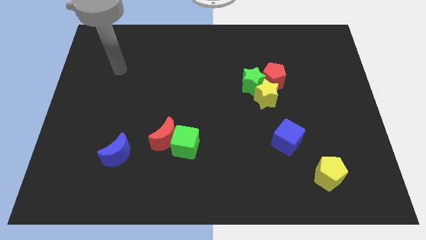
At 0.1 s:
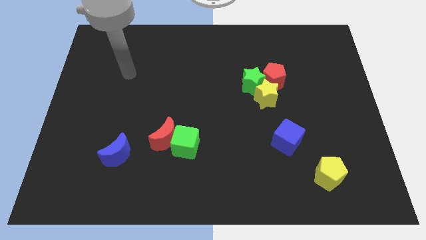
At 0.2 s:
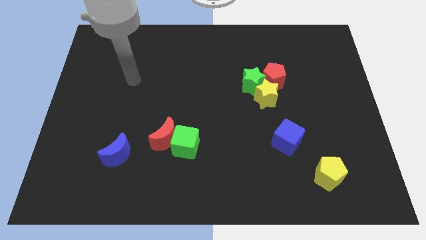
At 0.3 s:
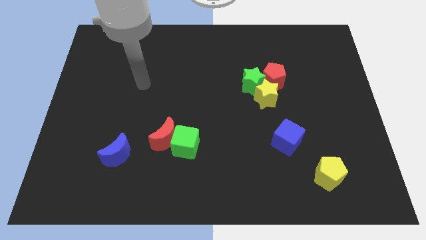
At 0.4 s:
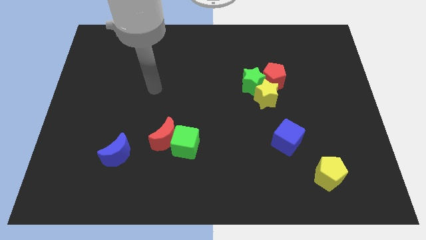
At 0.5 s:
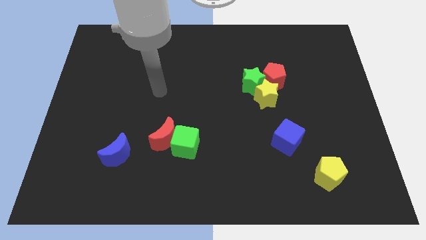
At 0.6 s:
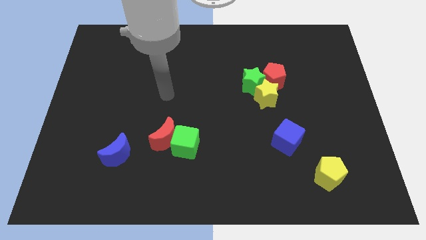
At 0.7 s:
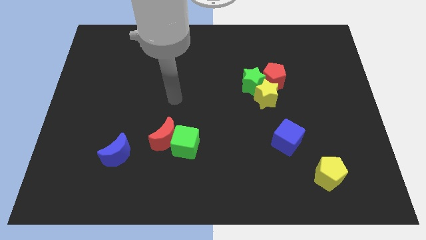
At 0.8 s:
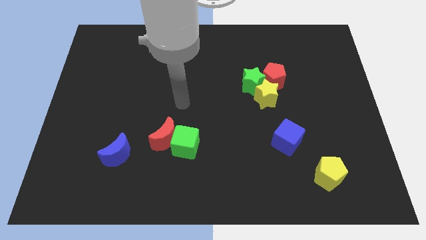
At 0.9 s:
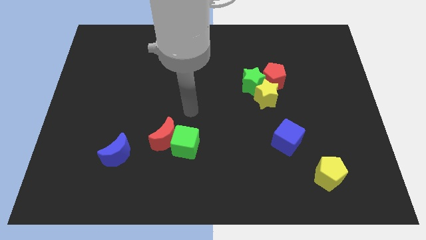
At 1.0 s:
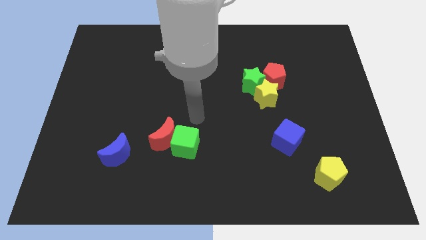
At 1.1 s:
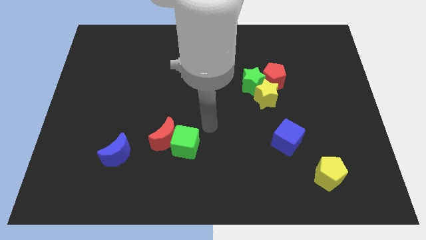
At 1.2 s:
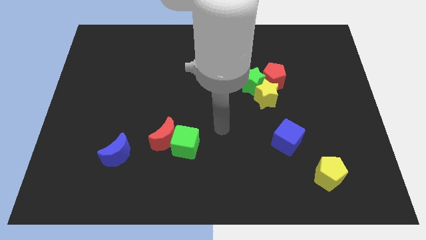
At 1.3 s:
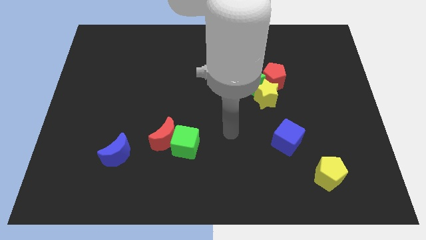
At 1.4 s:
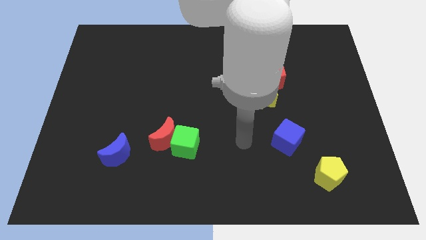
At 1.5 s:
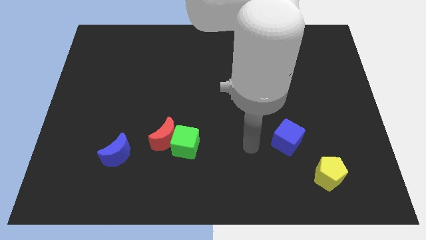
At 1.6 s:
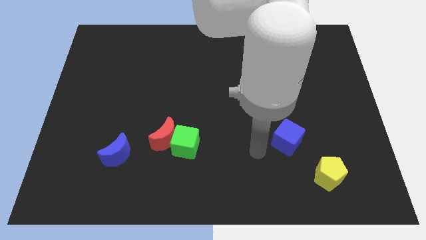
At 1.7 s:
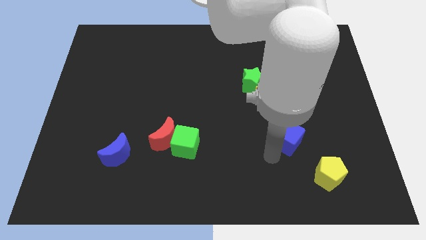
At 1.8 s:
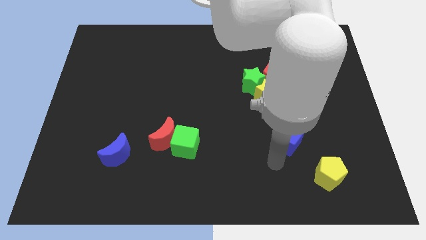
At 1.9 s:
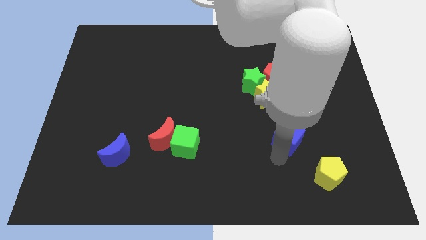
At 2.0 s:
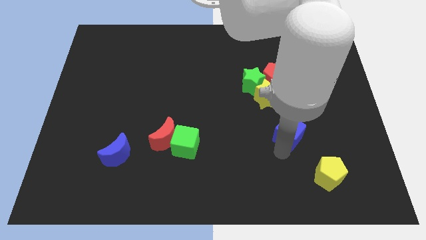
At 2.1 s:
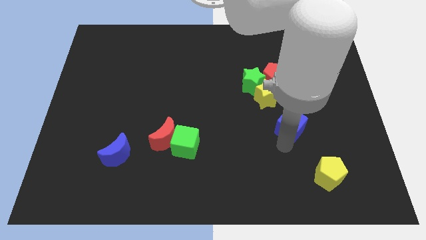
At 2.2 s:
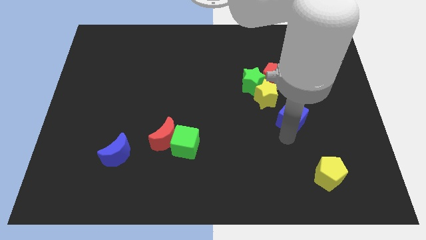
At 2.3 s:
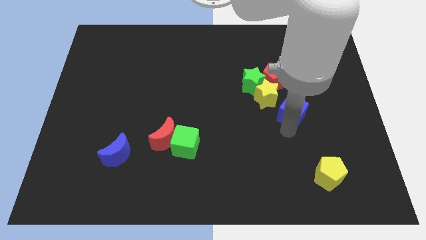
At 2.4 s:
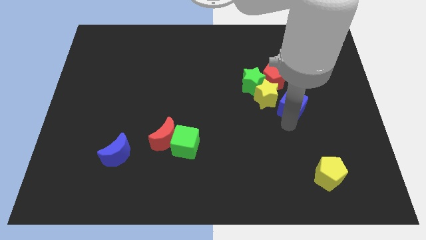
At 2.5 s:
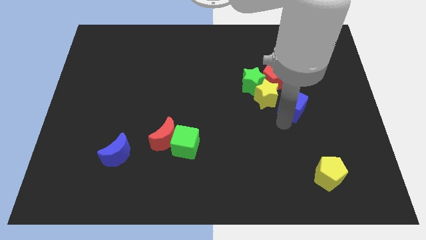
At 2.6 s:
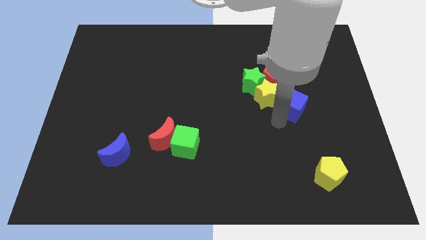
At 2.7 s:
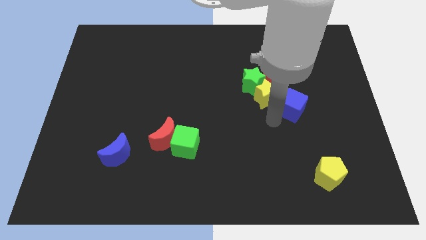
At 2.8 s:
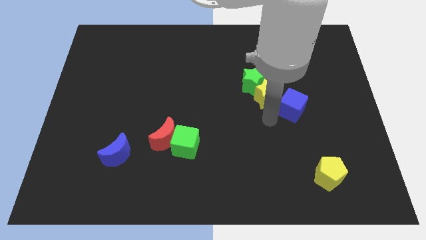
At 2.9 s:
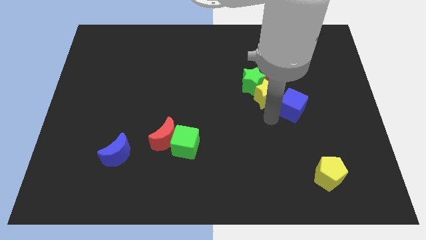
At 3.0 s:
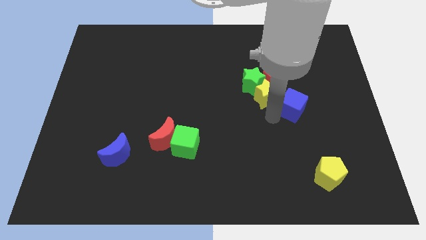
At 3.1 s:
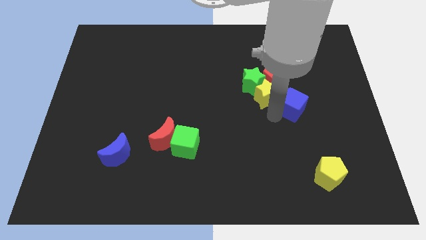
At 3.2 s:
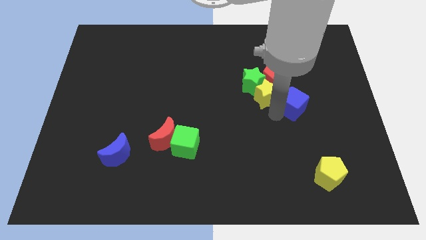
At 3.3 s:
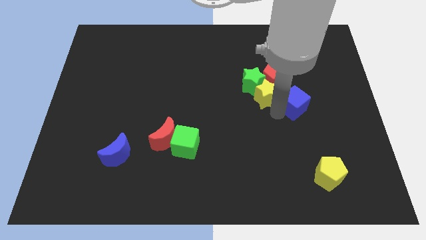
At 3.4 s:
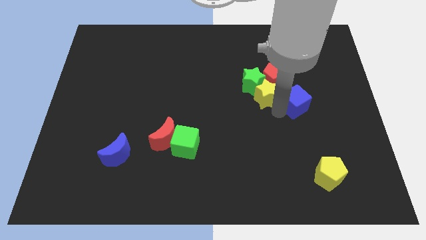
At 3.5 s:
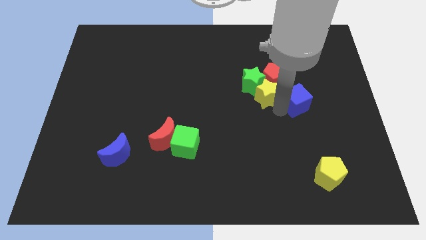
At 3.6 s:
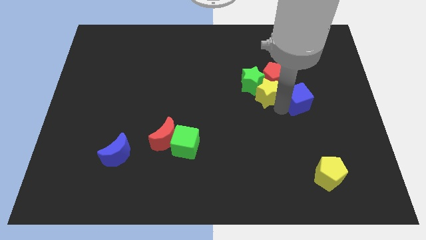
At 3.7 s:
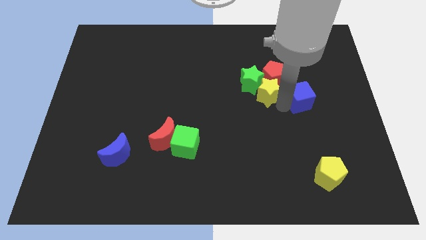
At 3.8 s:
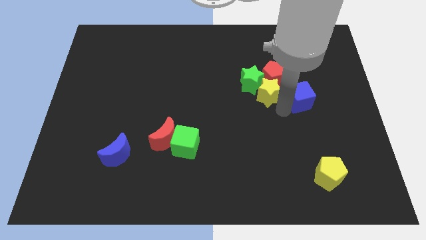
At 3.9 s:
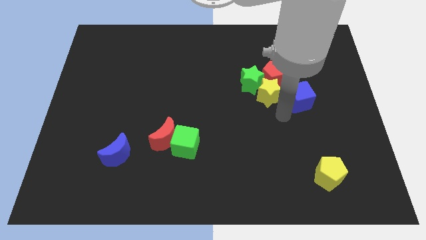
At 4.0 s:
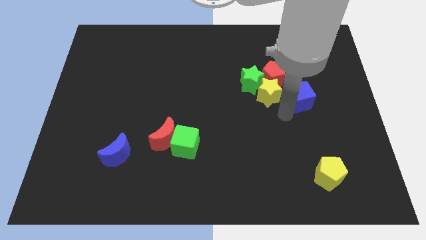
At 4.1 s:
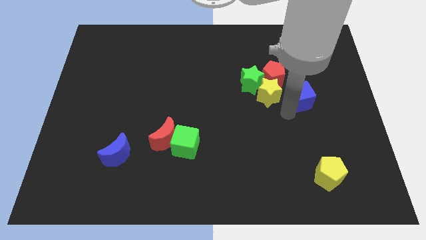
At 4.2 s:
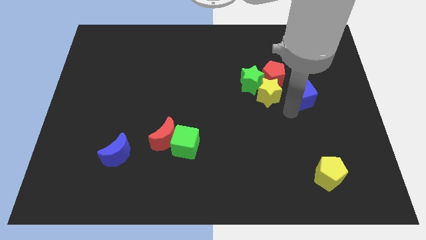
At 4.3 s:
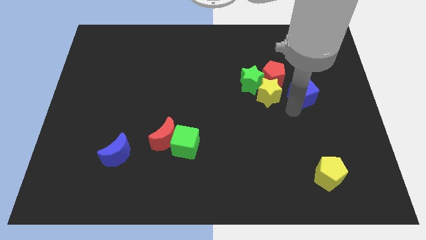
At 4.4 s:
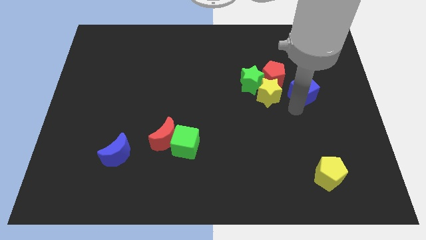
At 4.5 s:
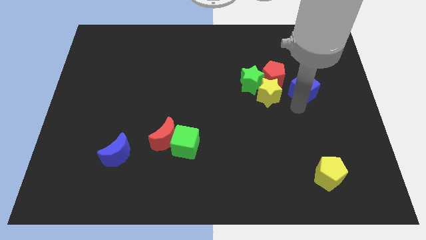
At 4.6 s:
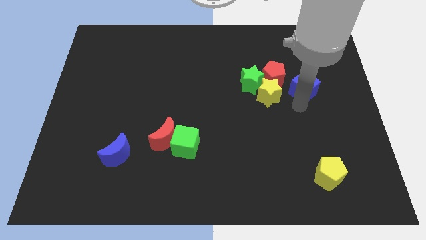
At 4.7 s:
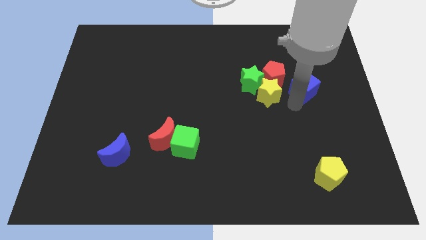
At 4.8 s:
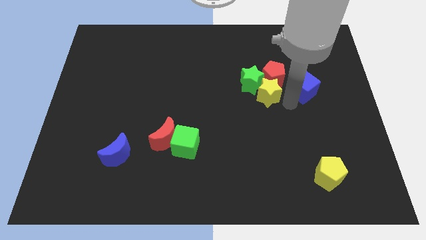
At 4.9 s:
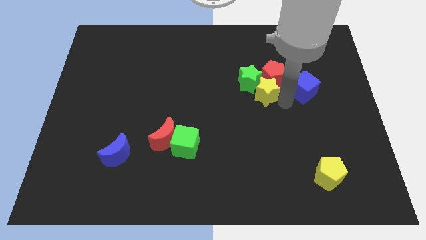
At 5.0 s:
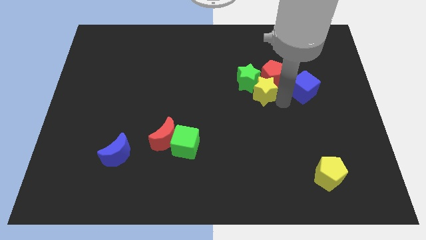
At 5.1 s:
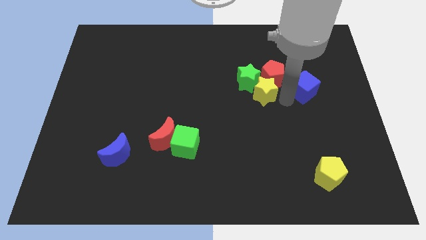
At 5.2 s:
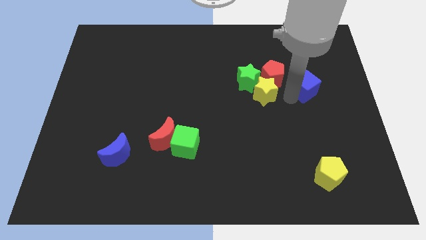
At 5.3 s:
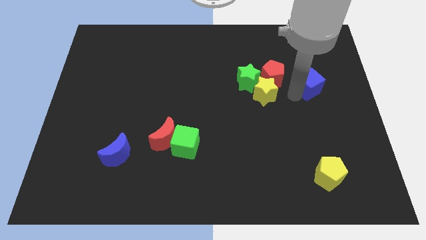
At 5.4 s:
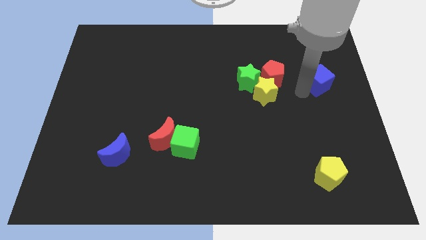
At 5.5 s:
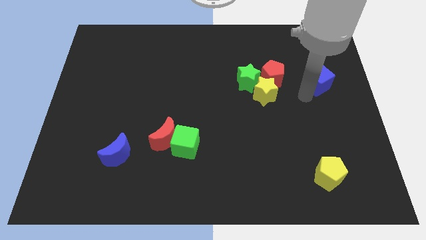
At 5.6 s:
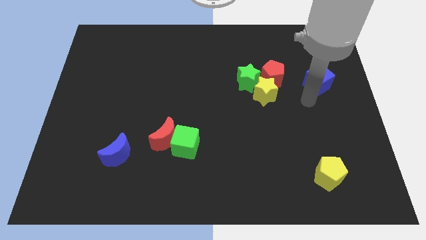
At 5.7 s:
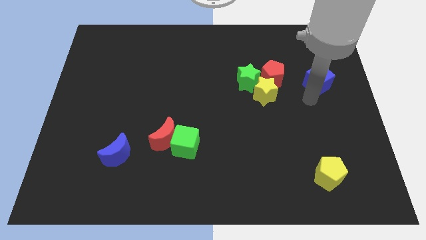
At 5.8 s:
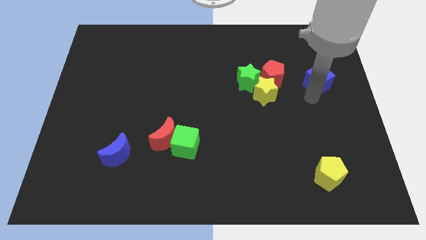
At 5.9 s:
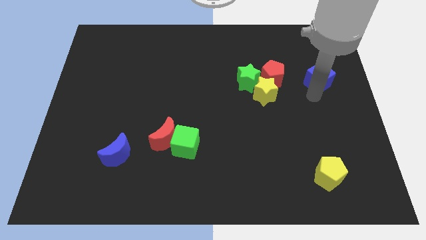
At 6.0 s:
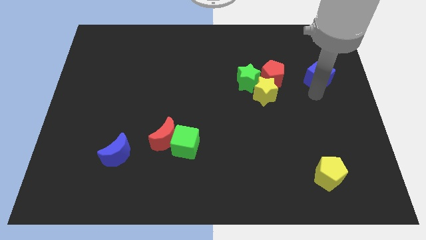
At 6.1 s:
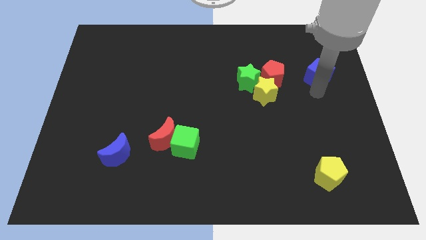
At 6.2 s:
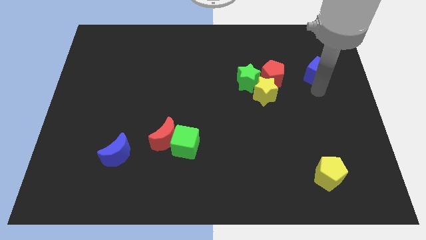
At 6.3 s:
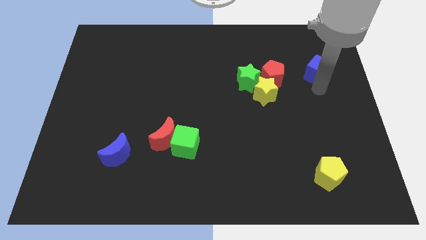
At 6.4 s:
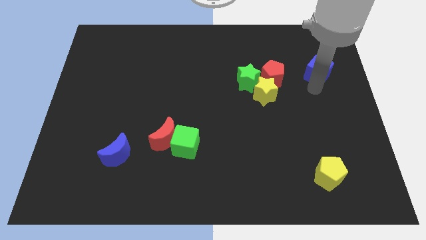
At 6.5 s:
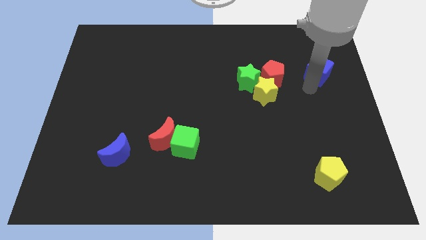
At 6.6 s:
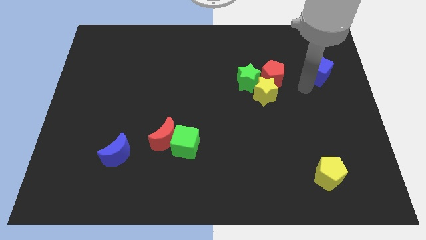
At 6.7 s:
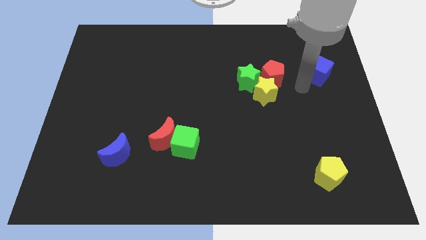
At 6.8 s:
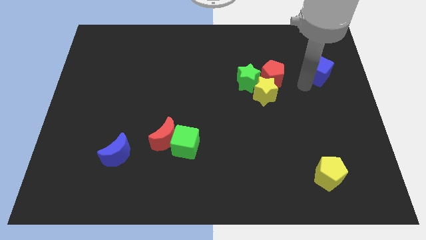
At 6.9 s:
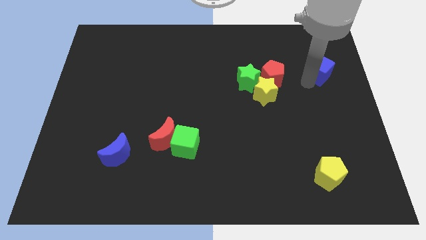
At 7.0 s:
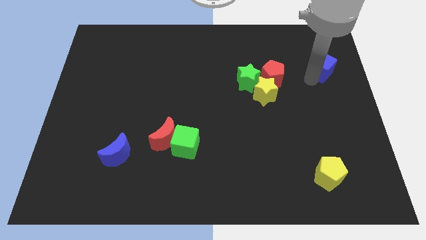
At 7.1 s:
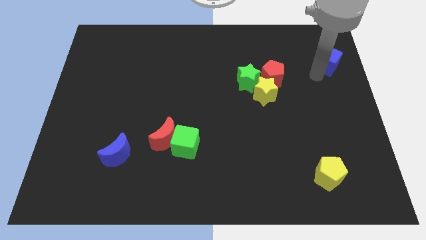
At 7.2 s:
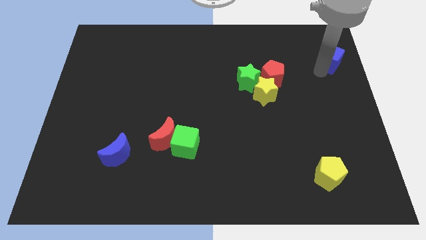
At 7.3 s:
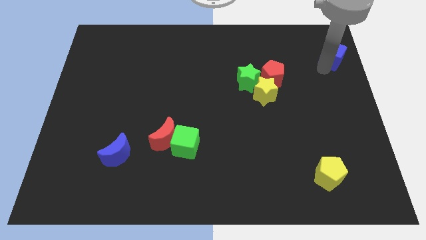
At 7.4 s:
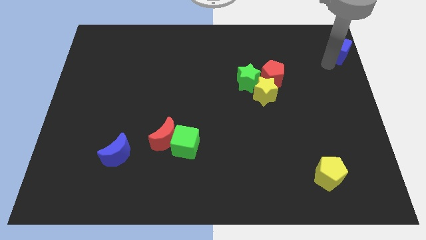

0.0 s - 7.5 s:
move the blue cube to the top right
